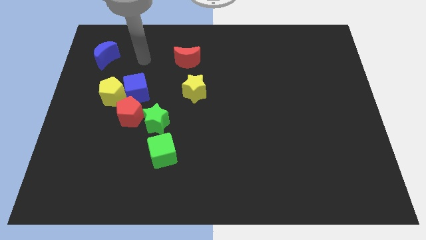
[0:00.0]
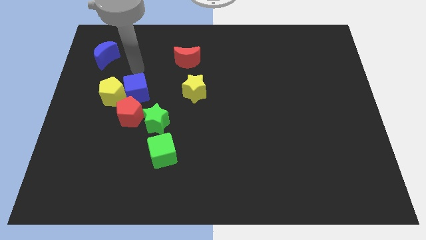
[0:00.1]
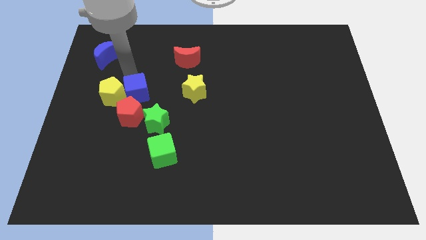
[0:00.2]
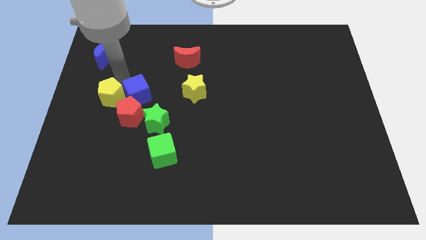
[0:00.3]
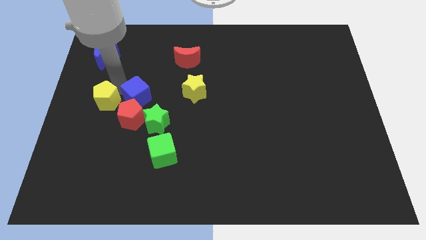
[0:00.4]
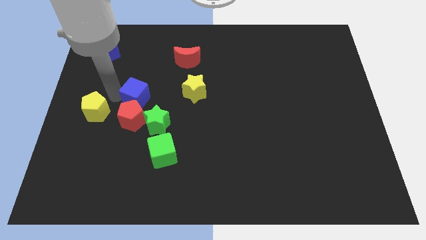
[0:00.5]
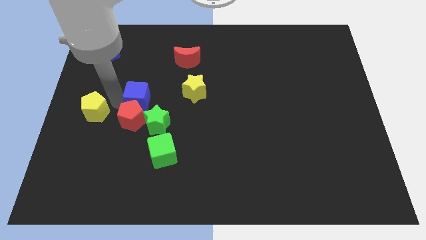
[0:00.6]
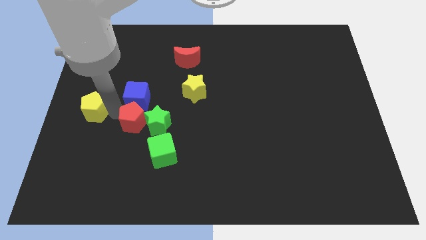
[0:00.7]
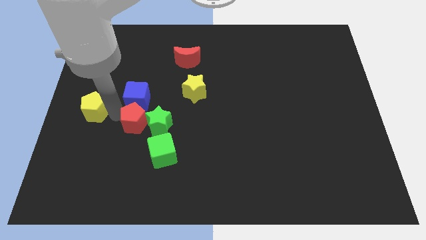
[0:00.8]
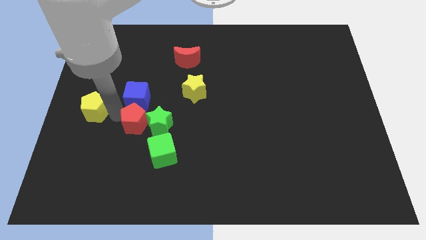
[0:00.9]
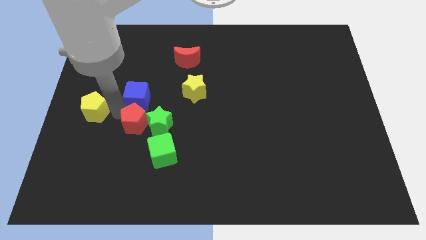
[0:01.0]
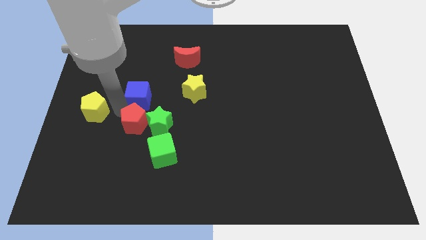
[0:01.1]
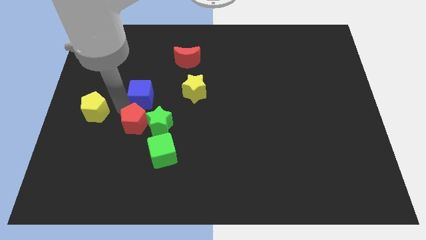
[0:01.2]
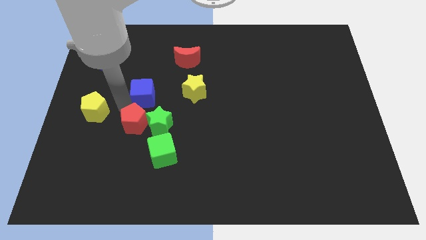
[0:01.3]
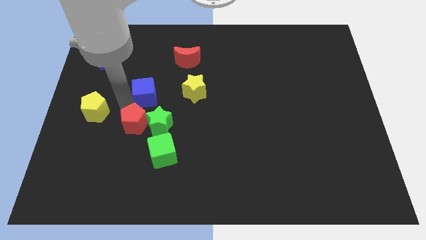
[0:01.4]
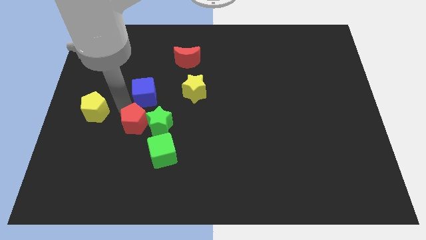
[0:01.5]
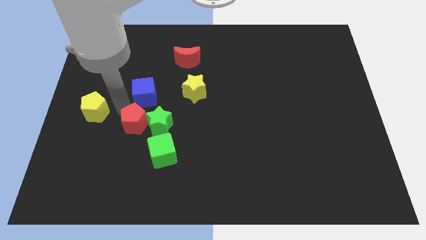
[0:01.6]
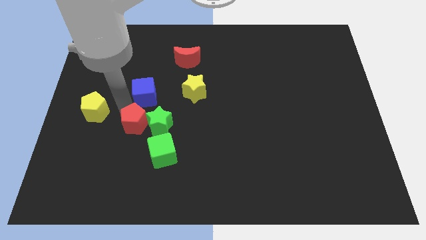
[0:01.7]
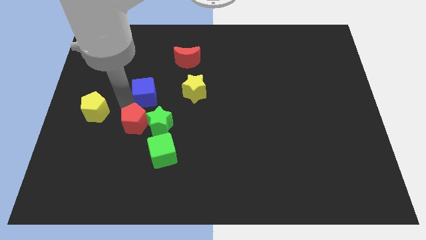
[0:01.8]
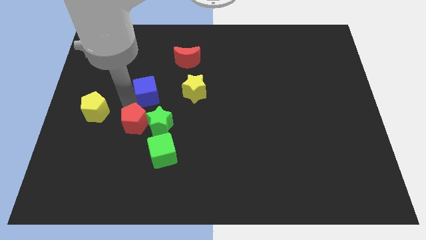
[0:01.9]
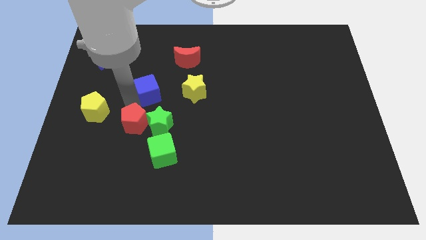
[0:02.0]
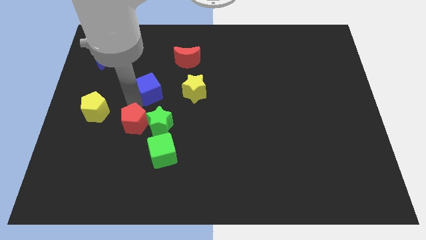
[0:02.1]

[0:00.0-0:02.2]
move the blue cube away from the yellow pentagon and red pentagon

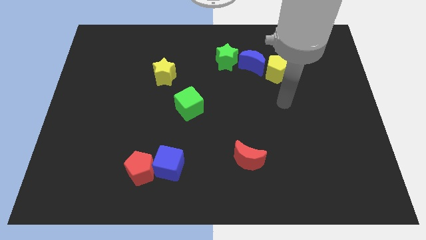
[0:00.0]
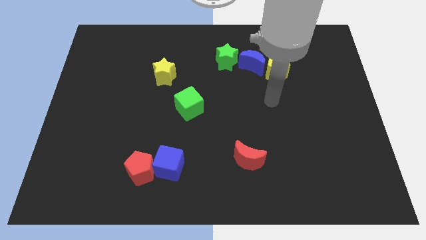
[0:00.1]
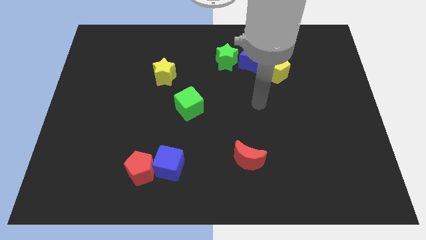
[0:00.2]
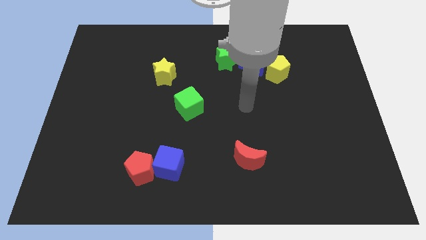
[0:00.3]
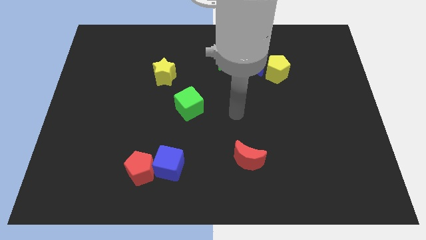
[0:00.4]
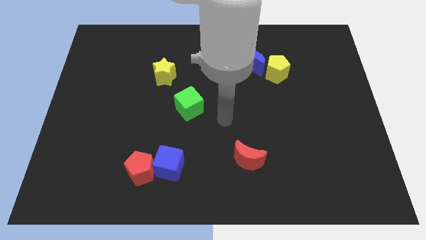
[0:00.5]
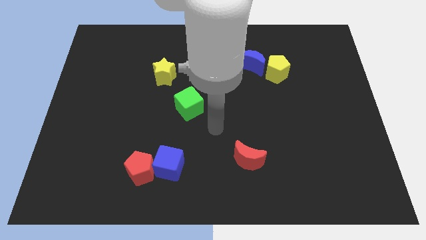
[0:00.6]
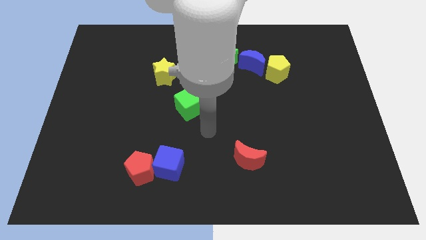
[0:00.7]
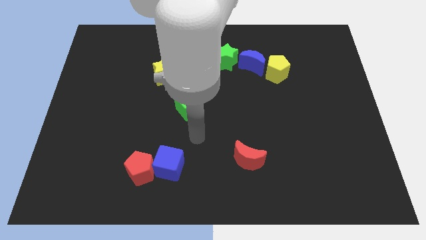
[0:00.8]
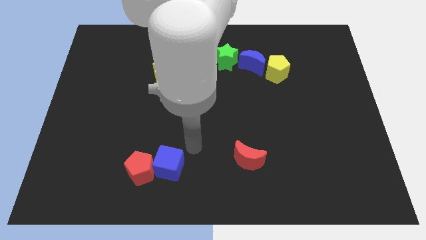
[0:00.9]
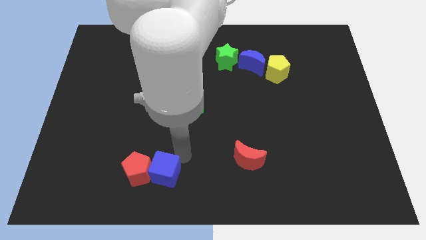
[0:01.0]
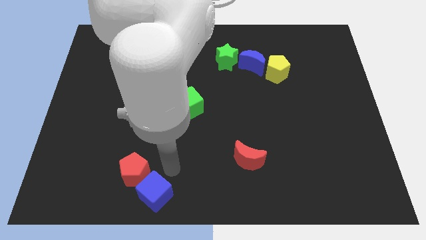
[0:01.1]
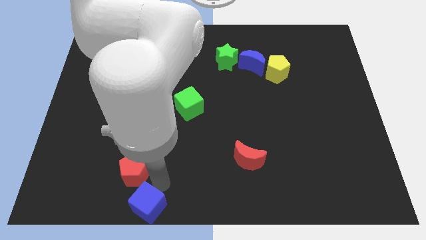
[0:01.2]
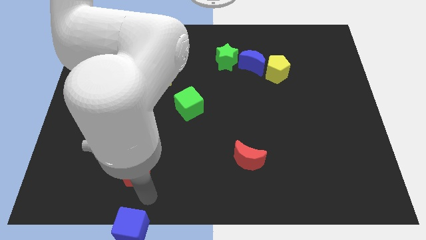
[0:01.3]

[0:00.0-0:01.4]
move the red pentagon away from the blue cube

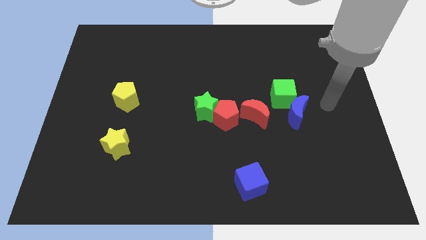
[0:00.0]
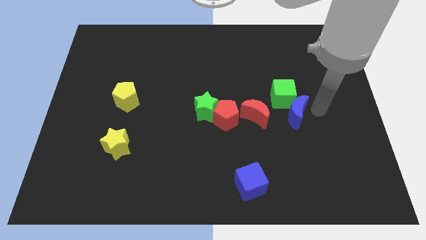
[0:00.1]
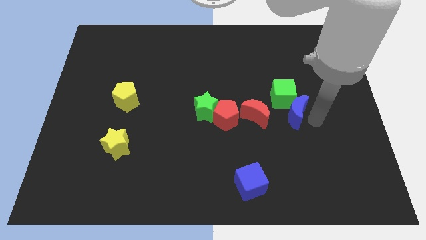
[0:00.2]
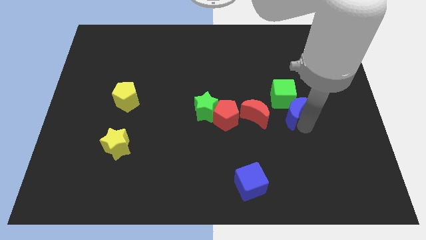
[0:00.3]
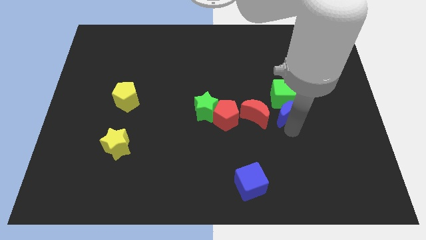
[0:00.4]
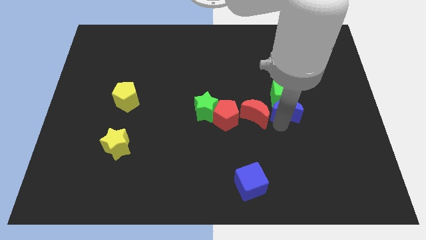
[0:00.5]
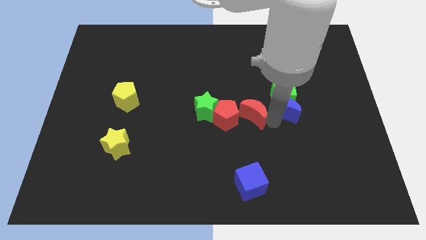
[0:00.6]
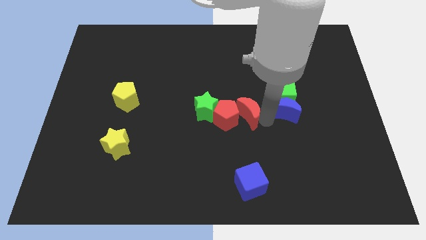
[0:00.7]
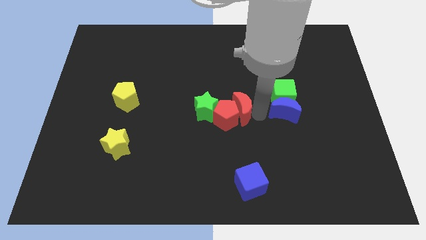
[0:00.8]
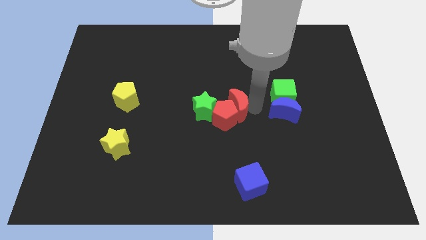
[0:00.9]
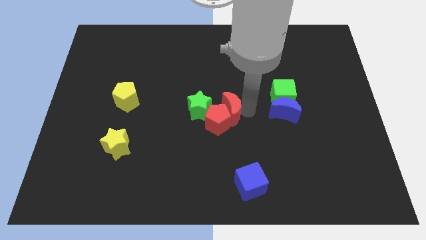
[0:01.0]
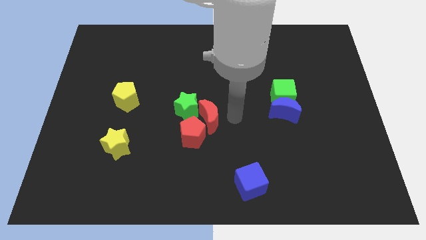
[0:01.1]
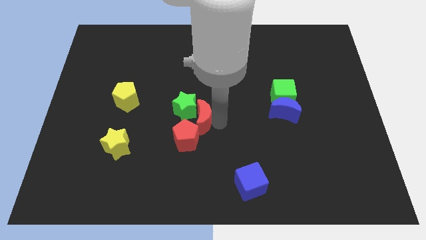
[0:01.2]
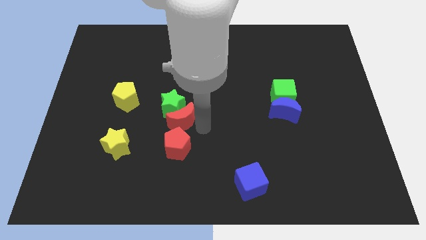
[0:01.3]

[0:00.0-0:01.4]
pull the green star apart from the red pentagon

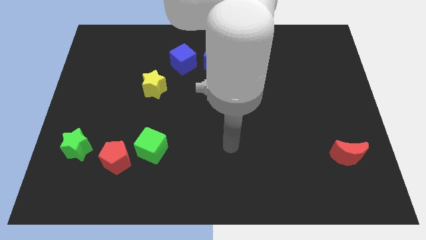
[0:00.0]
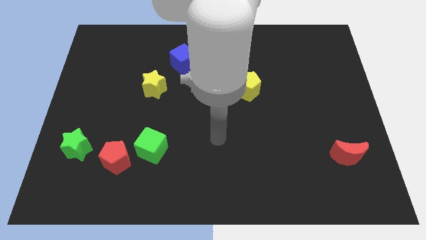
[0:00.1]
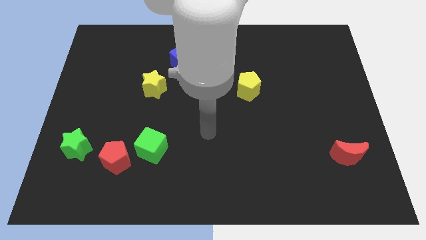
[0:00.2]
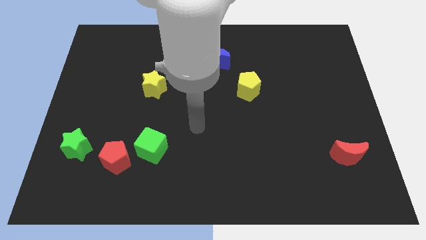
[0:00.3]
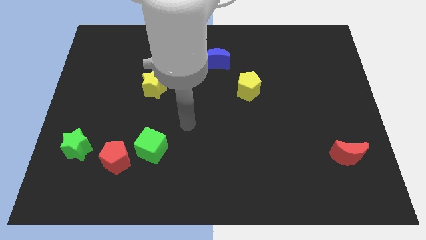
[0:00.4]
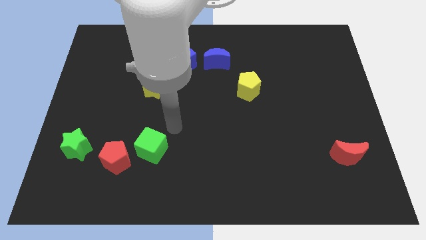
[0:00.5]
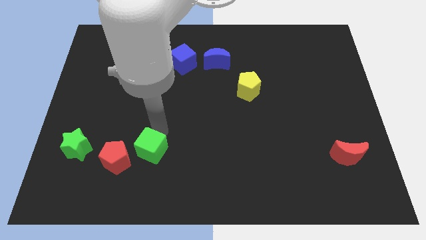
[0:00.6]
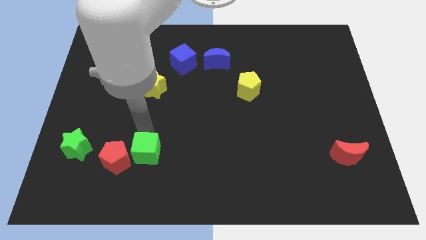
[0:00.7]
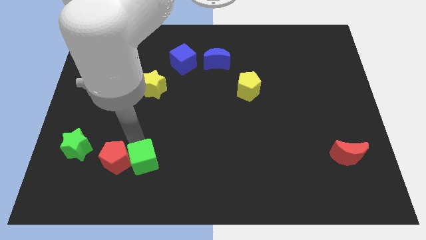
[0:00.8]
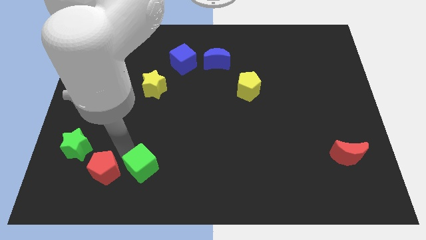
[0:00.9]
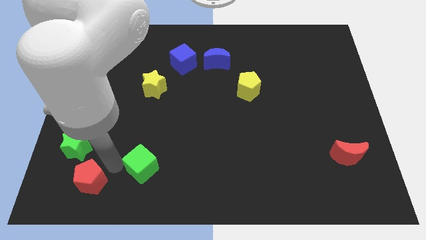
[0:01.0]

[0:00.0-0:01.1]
separate the green cube from the red pentagon

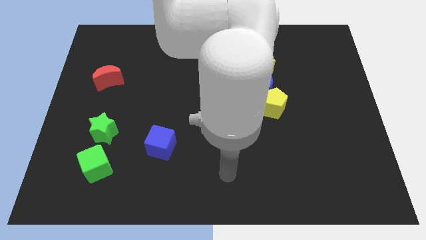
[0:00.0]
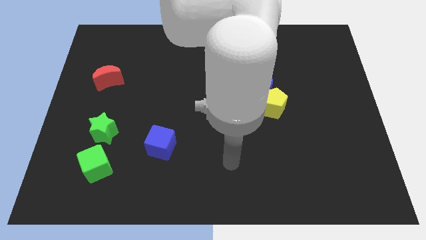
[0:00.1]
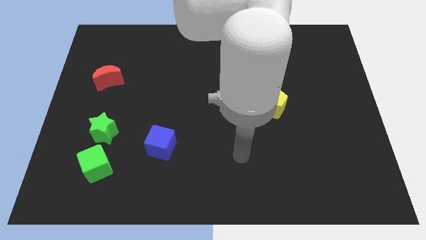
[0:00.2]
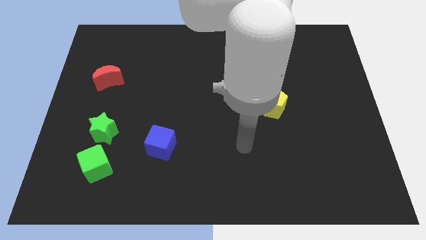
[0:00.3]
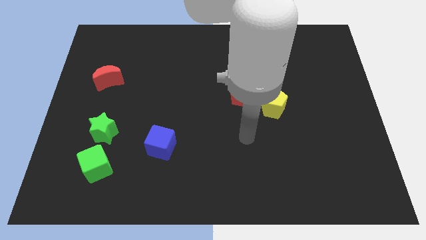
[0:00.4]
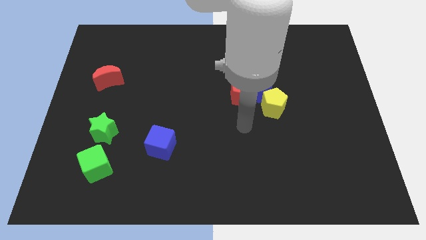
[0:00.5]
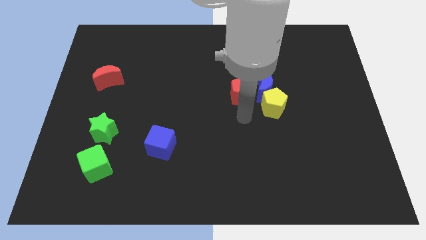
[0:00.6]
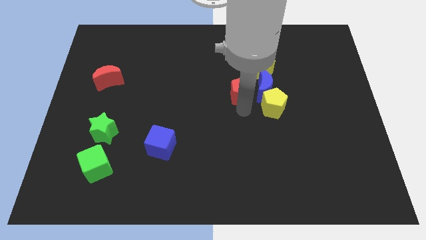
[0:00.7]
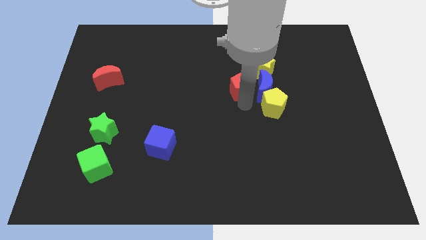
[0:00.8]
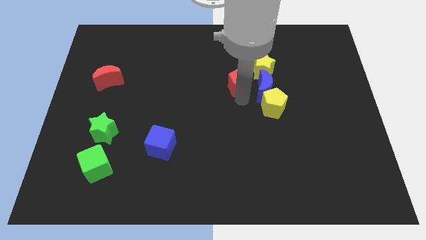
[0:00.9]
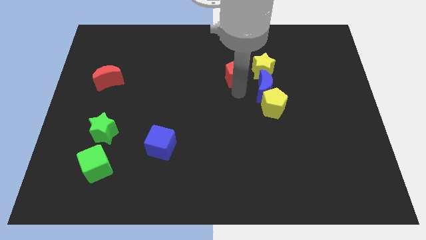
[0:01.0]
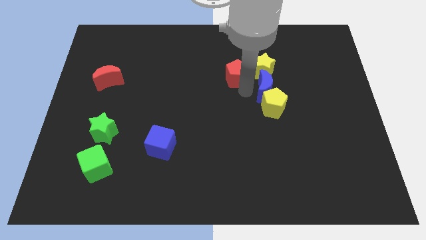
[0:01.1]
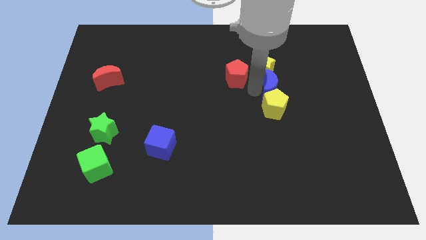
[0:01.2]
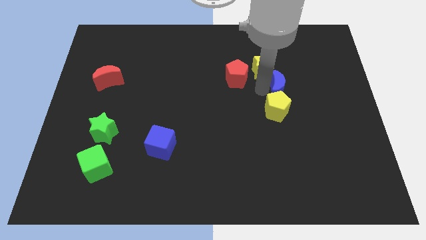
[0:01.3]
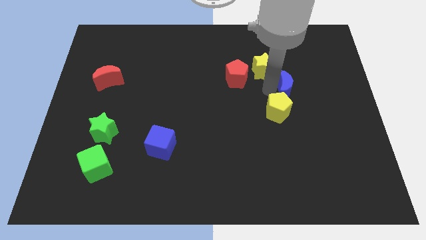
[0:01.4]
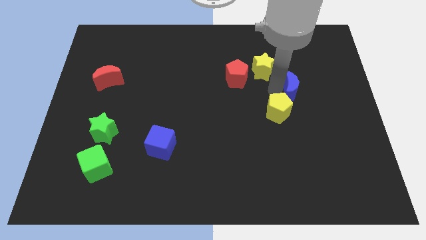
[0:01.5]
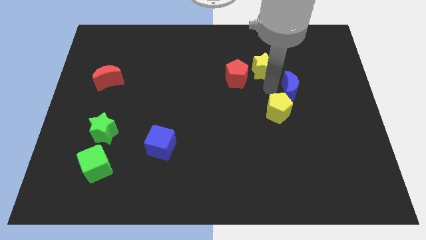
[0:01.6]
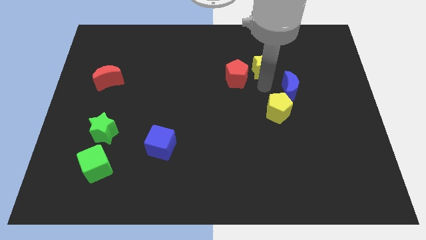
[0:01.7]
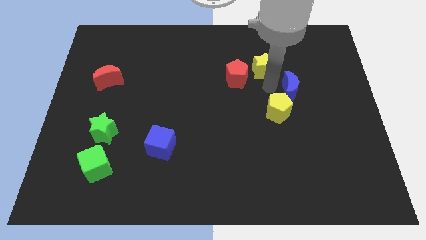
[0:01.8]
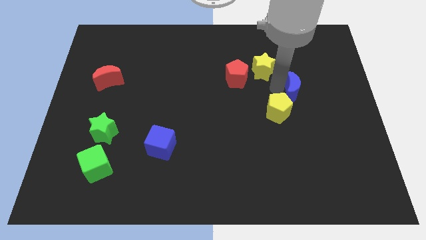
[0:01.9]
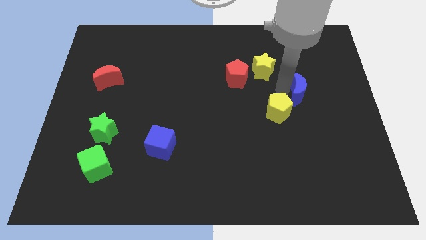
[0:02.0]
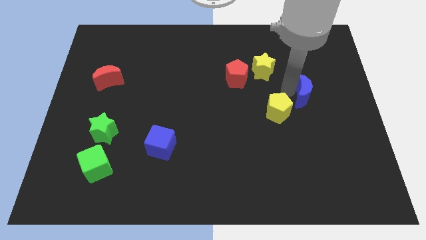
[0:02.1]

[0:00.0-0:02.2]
pull the blue moon apart from the yellow pentagon, red pentagon, and yellow star

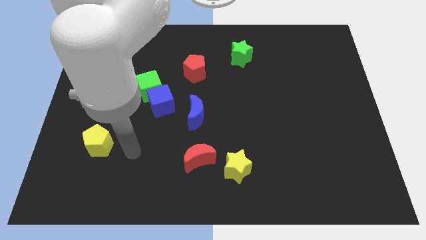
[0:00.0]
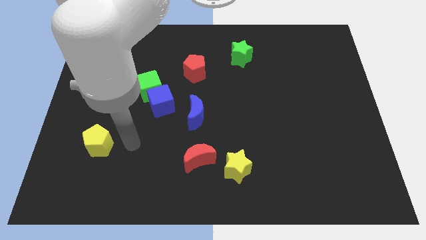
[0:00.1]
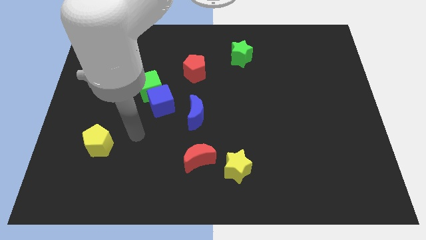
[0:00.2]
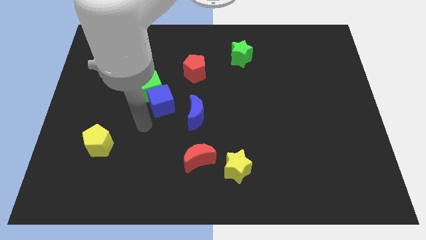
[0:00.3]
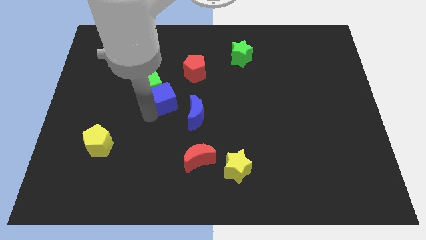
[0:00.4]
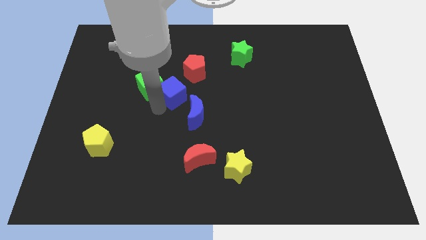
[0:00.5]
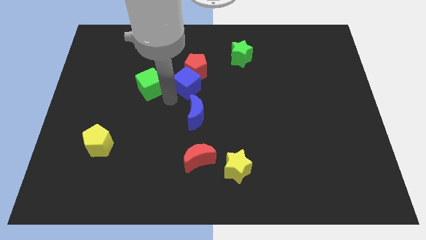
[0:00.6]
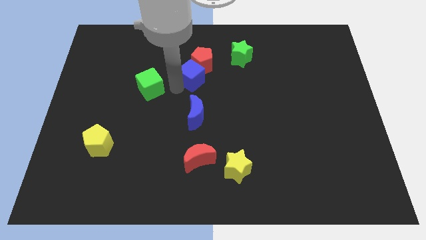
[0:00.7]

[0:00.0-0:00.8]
move the green cube away from the blue cube

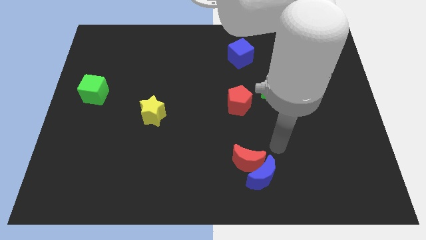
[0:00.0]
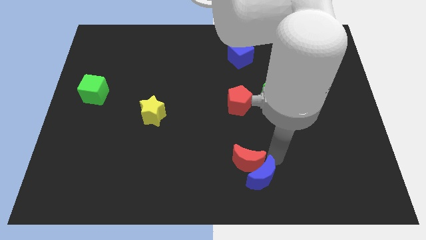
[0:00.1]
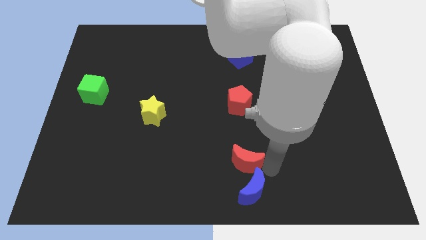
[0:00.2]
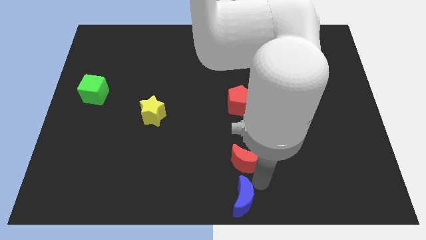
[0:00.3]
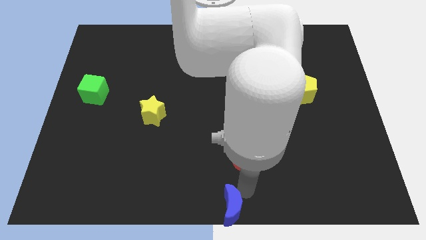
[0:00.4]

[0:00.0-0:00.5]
separate the red moon from the blue moon
